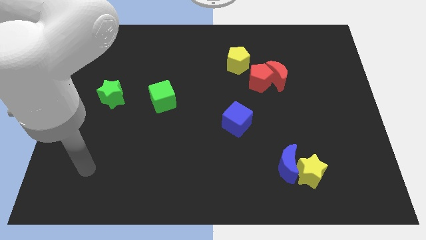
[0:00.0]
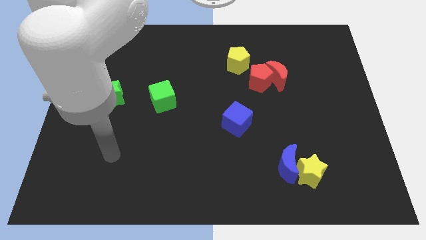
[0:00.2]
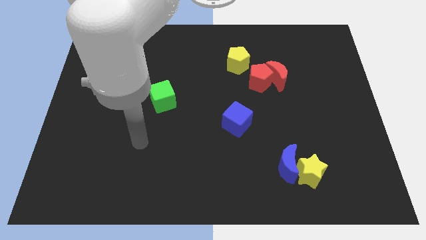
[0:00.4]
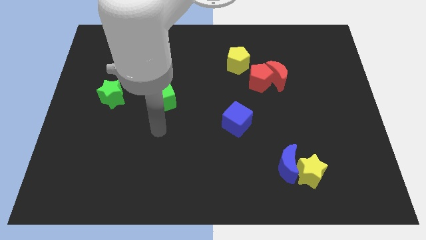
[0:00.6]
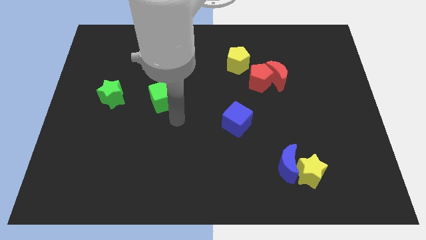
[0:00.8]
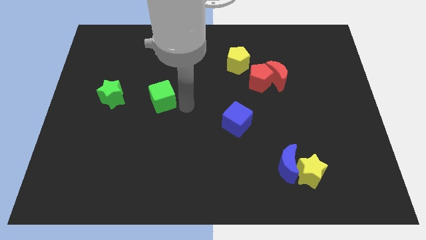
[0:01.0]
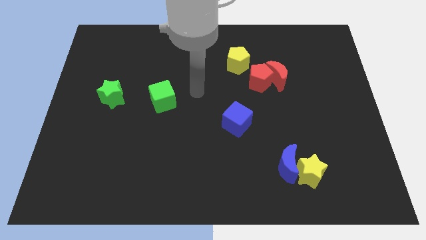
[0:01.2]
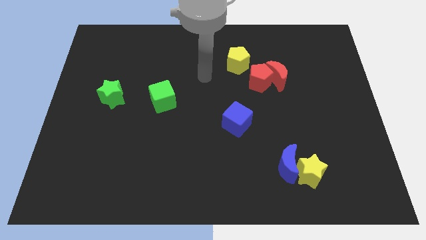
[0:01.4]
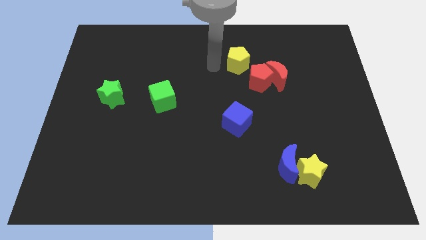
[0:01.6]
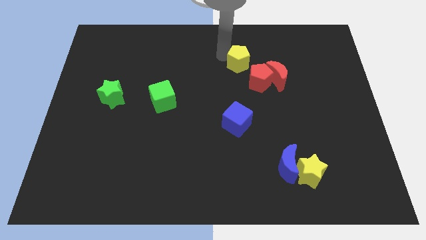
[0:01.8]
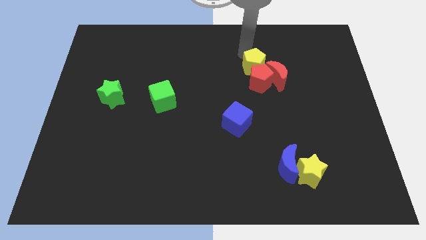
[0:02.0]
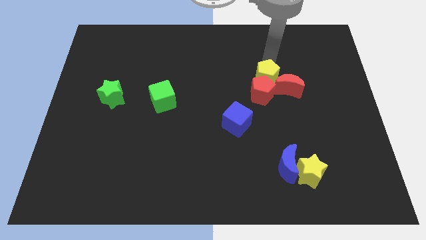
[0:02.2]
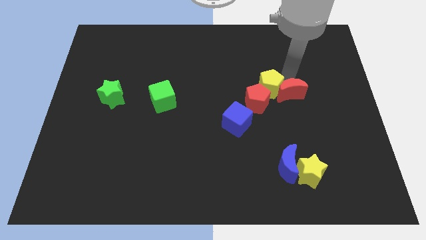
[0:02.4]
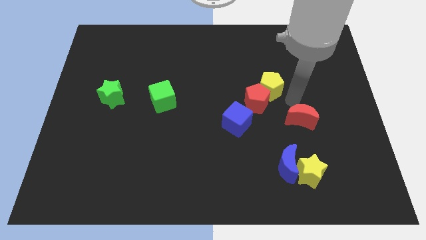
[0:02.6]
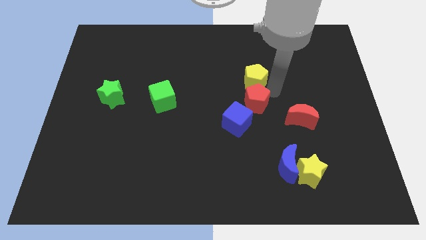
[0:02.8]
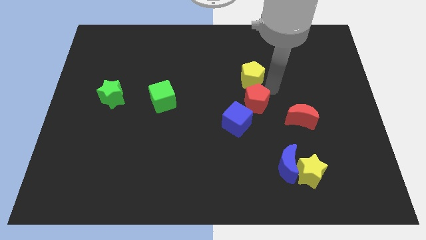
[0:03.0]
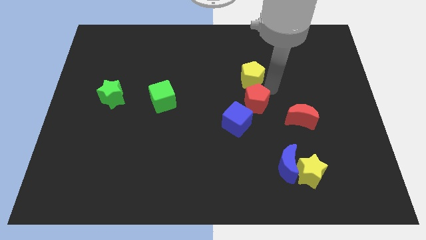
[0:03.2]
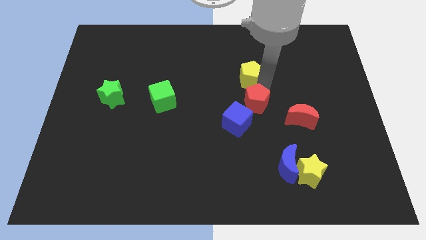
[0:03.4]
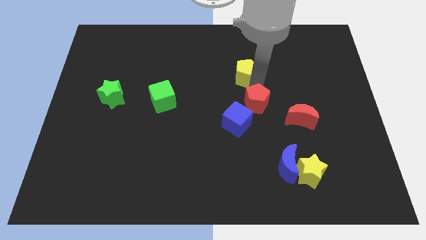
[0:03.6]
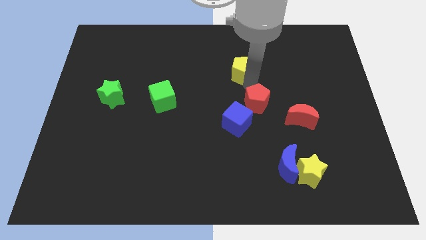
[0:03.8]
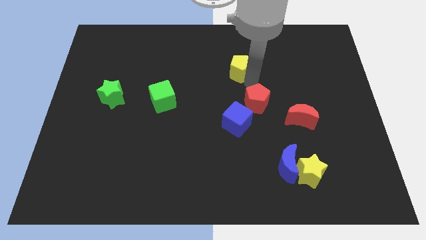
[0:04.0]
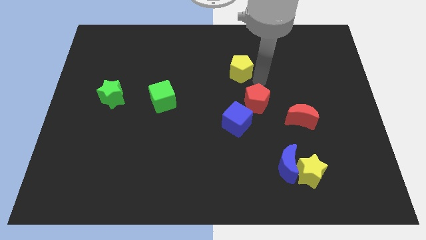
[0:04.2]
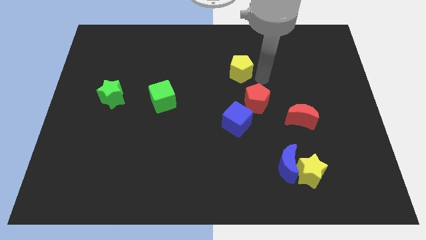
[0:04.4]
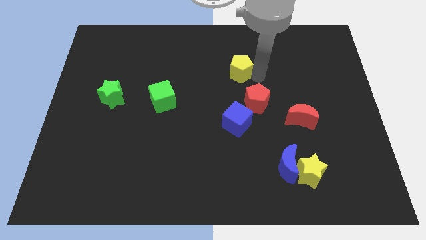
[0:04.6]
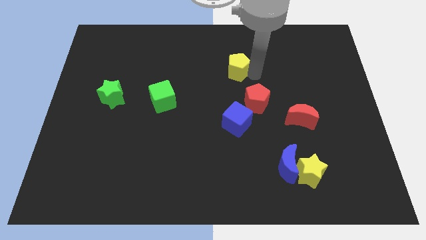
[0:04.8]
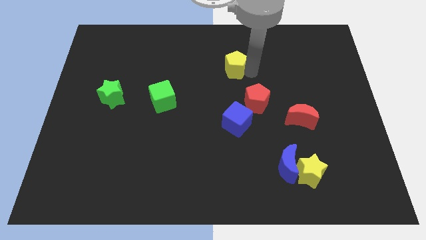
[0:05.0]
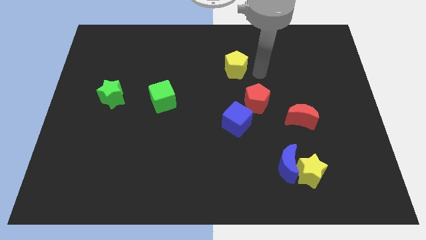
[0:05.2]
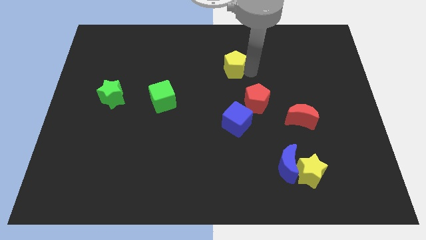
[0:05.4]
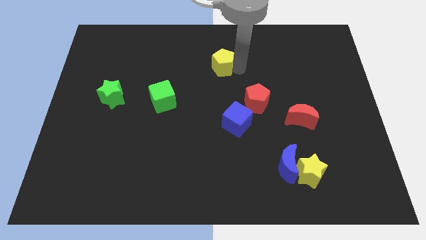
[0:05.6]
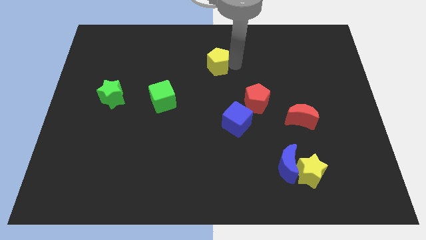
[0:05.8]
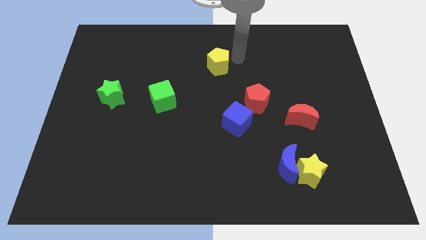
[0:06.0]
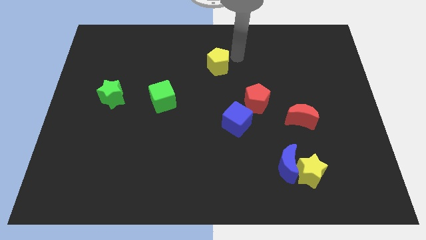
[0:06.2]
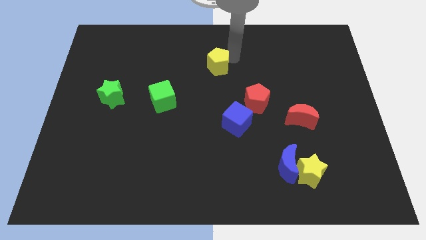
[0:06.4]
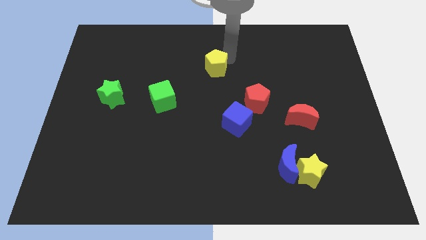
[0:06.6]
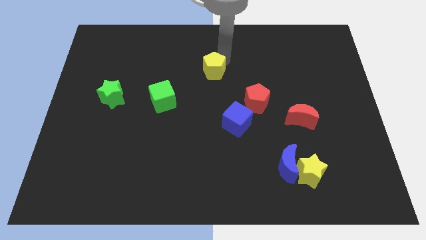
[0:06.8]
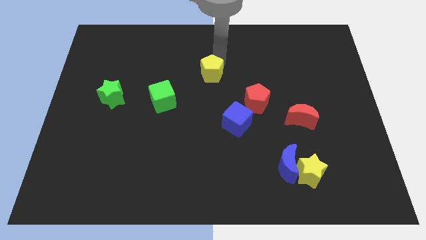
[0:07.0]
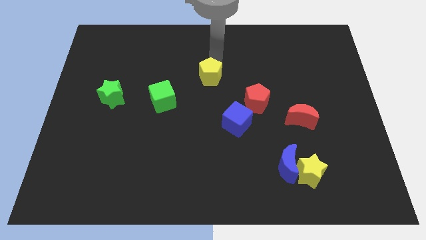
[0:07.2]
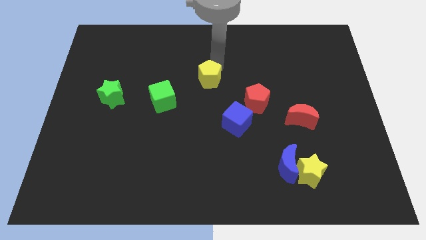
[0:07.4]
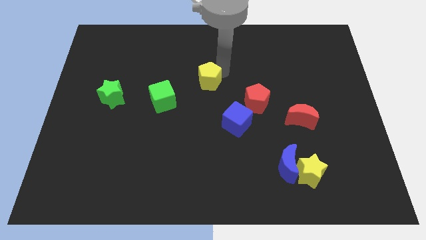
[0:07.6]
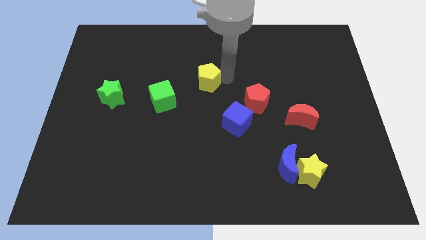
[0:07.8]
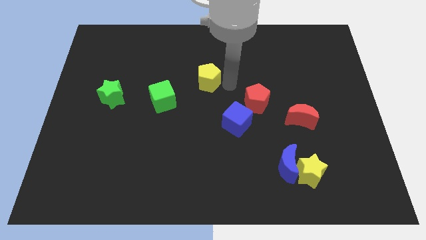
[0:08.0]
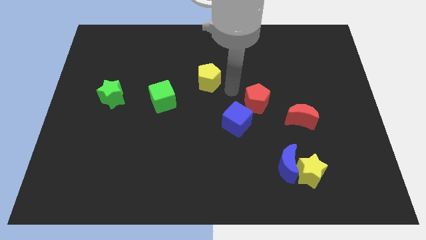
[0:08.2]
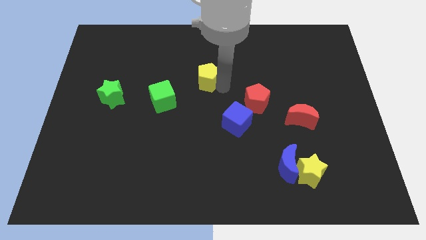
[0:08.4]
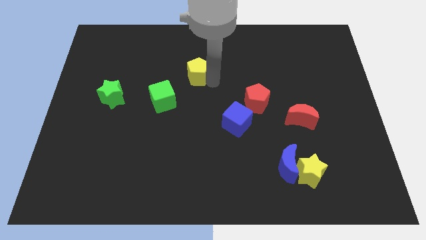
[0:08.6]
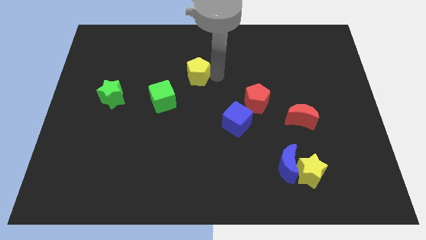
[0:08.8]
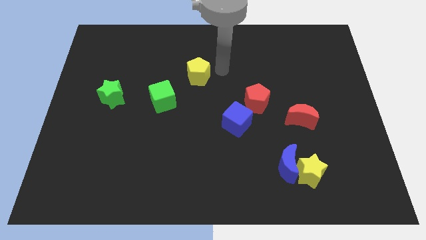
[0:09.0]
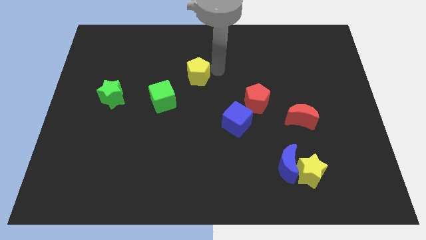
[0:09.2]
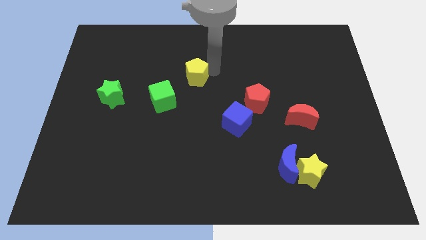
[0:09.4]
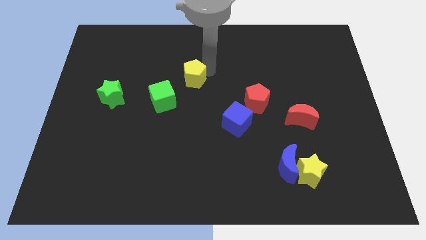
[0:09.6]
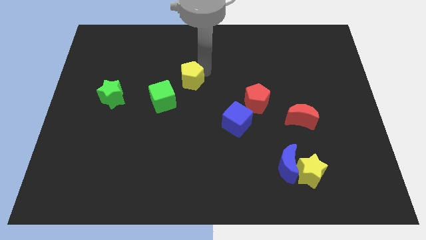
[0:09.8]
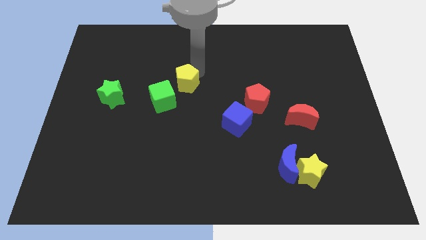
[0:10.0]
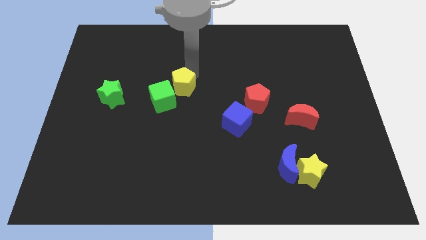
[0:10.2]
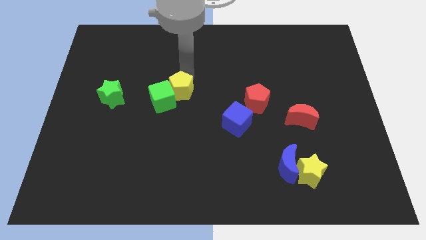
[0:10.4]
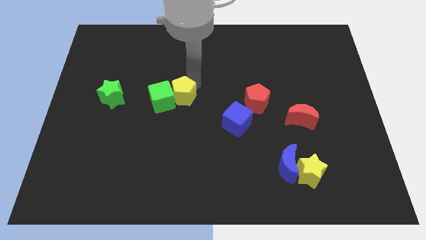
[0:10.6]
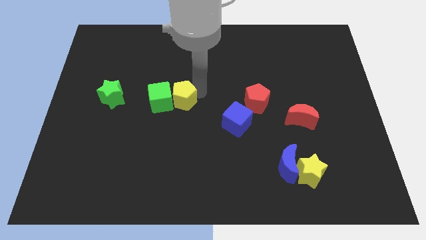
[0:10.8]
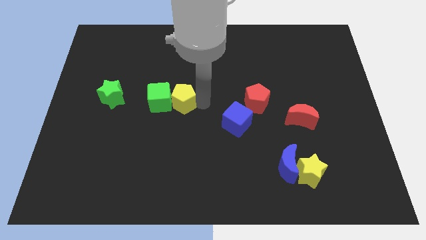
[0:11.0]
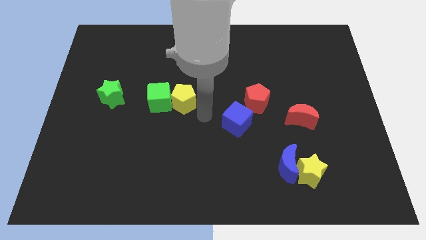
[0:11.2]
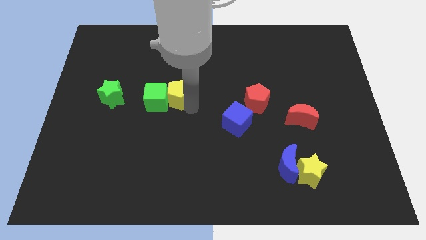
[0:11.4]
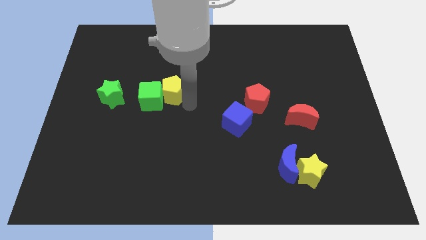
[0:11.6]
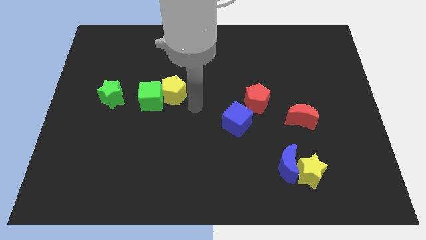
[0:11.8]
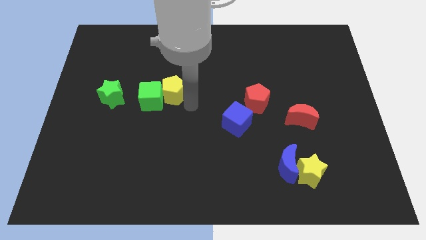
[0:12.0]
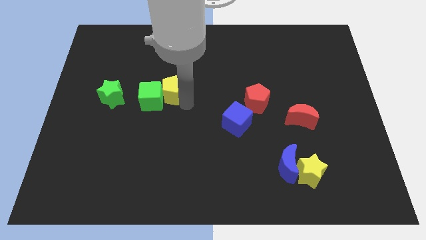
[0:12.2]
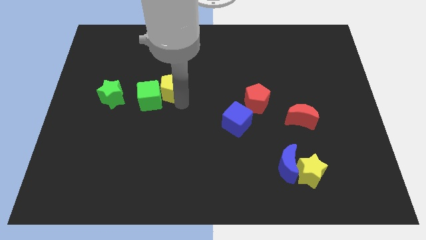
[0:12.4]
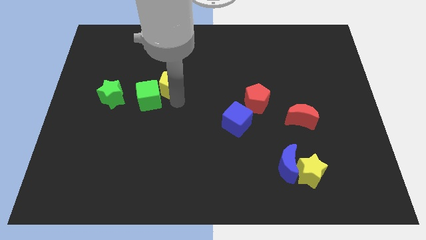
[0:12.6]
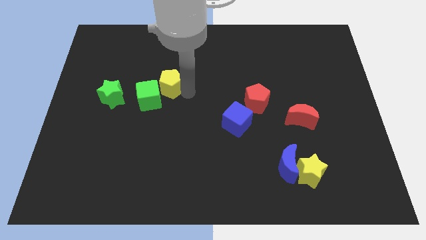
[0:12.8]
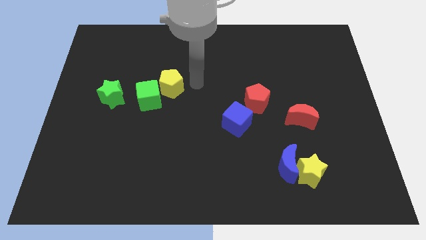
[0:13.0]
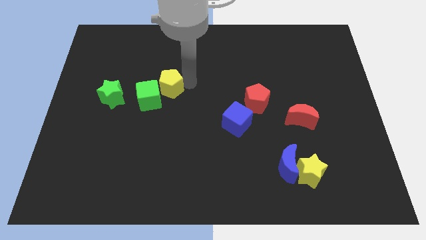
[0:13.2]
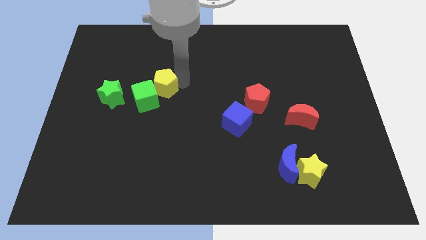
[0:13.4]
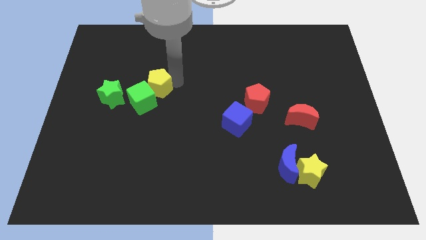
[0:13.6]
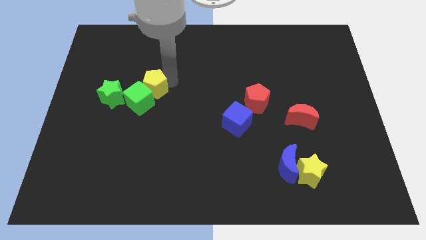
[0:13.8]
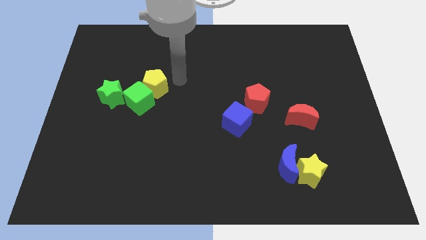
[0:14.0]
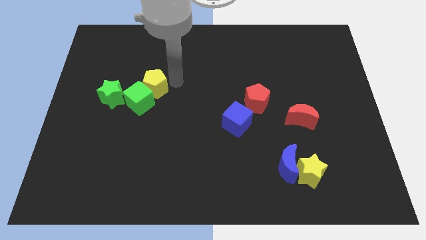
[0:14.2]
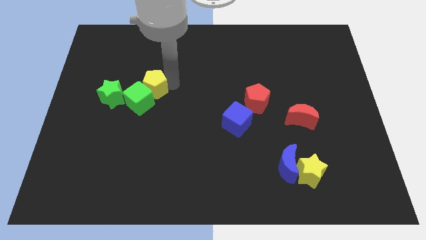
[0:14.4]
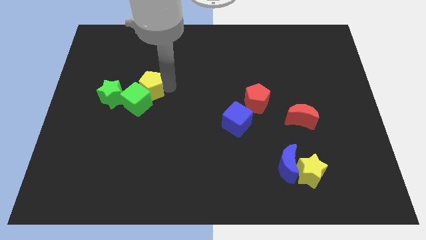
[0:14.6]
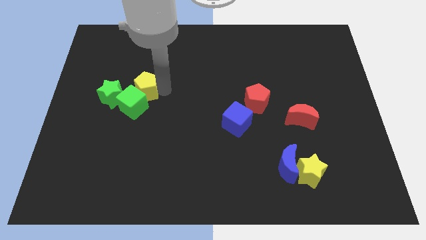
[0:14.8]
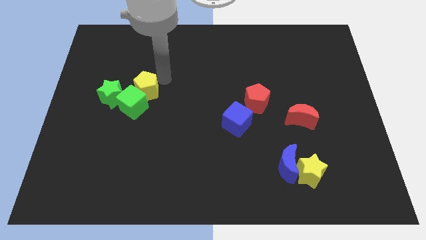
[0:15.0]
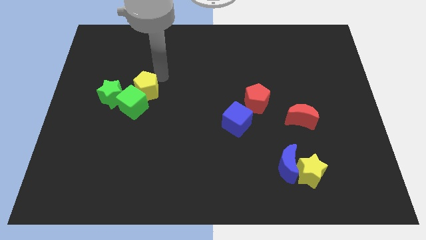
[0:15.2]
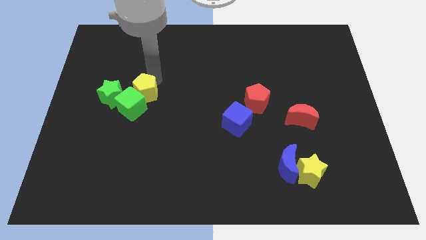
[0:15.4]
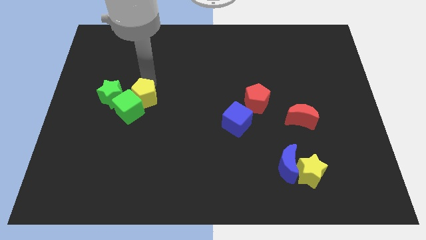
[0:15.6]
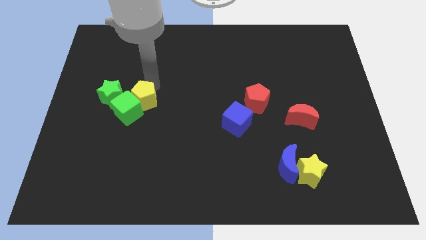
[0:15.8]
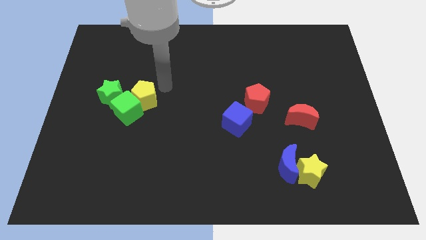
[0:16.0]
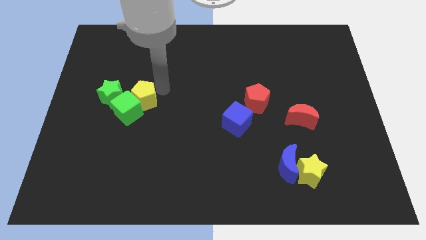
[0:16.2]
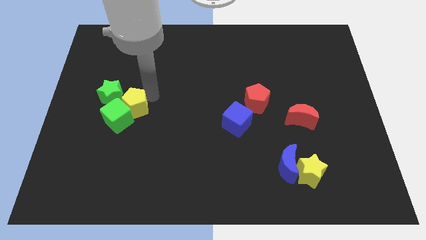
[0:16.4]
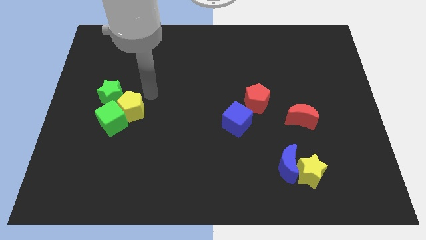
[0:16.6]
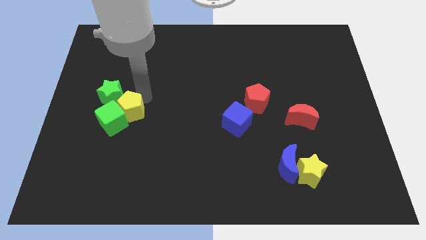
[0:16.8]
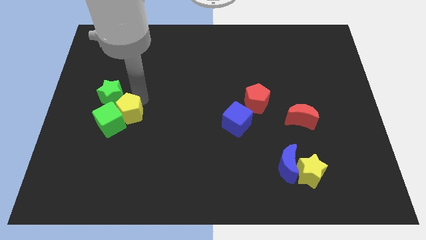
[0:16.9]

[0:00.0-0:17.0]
push the yellow pentagon below the green star
